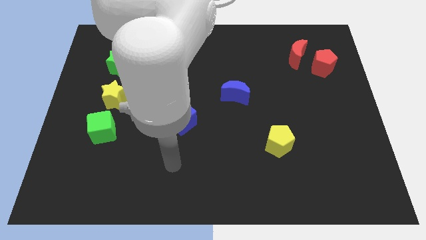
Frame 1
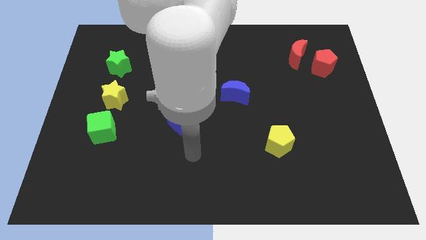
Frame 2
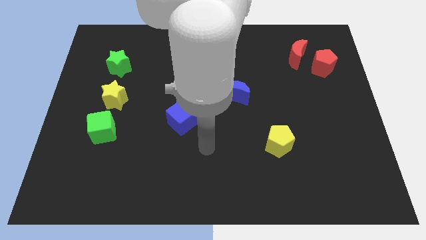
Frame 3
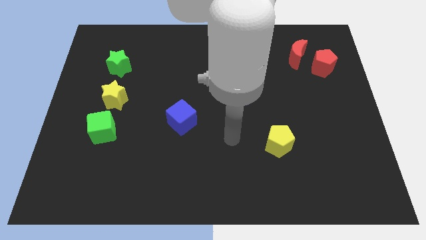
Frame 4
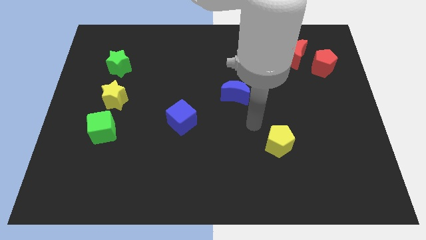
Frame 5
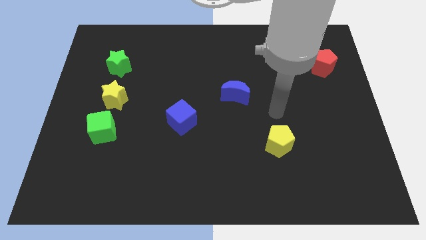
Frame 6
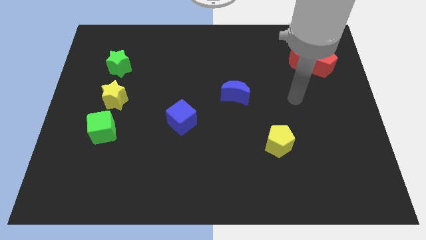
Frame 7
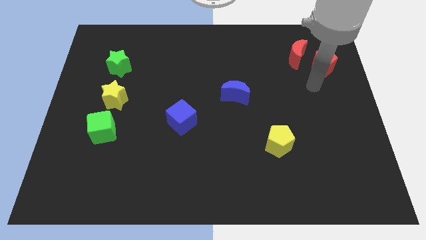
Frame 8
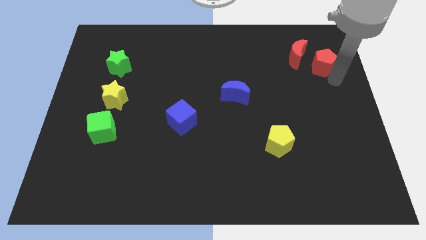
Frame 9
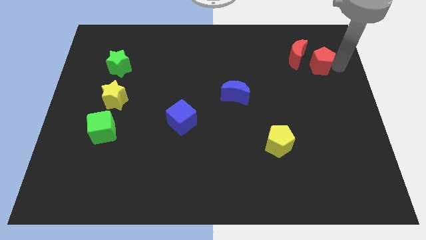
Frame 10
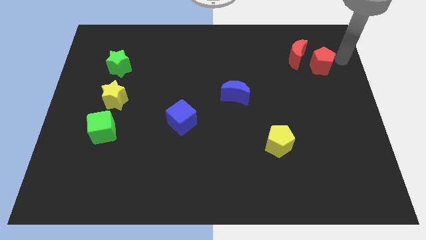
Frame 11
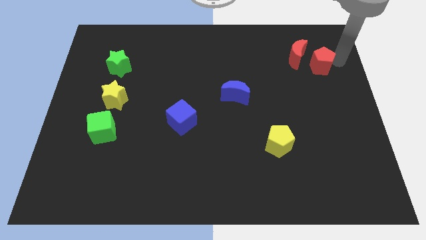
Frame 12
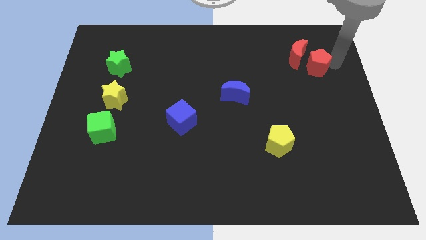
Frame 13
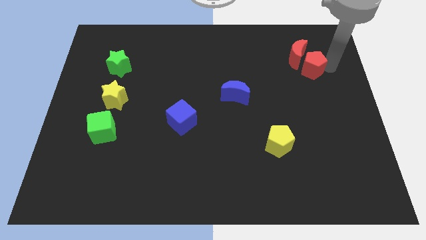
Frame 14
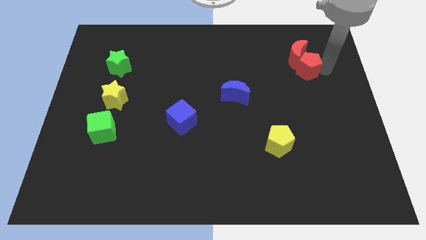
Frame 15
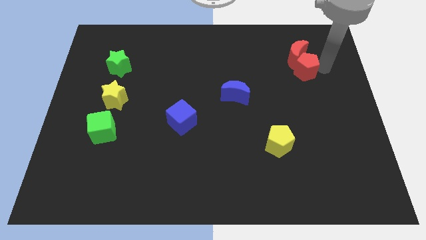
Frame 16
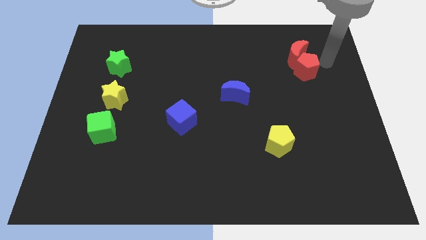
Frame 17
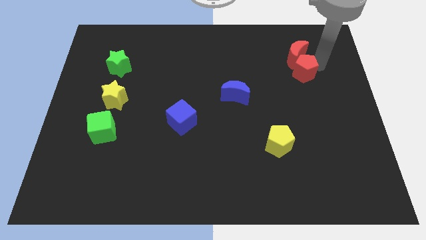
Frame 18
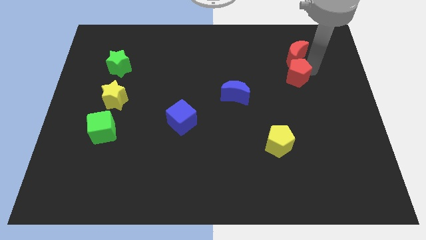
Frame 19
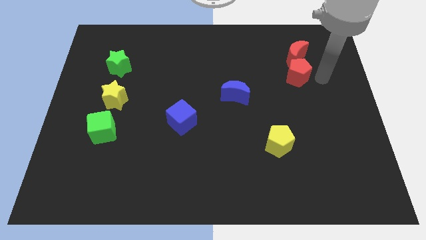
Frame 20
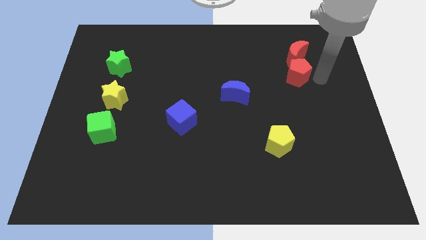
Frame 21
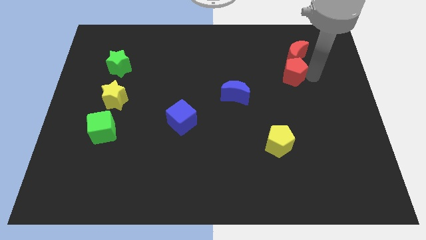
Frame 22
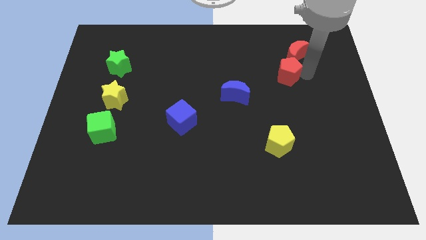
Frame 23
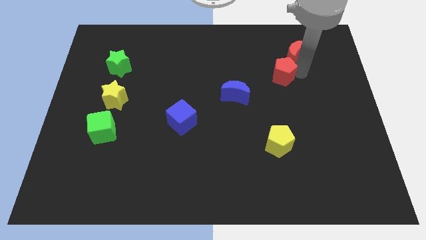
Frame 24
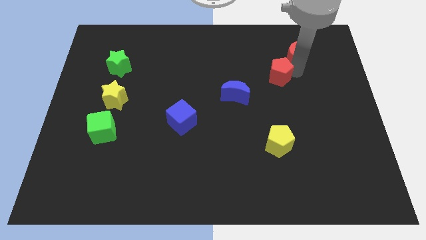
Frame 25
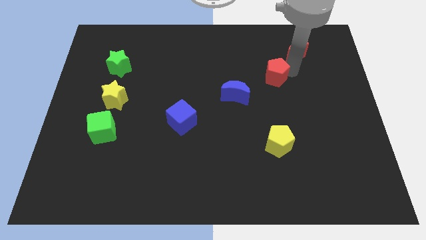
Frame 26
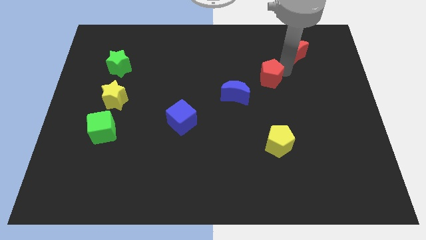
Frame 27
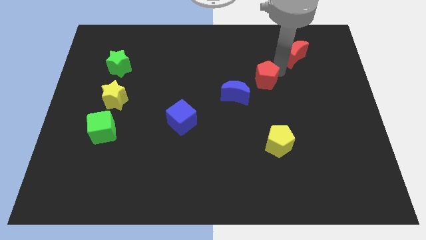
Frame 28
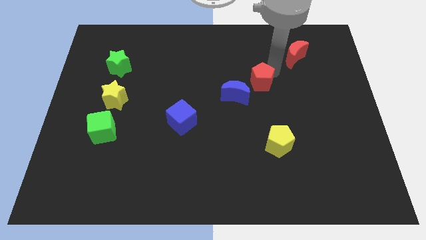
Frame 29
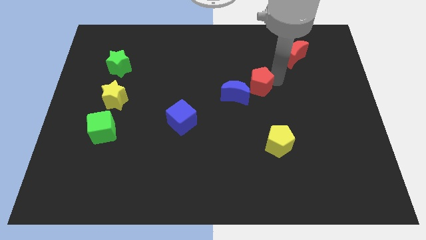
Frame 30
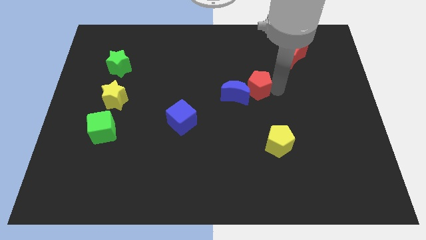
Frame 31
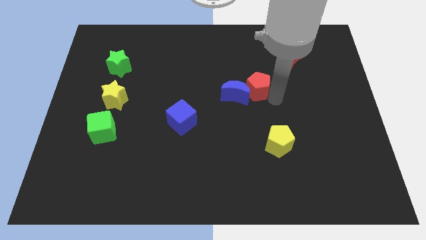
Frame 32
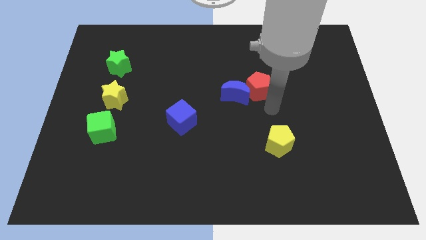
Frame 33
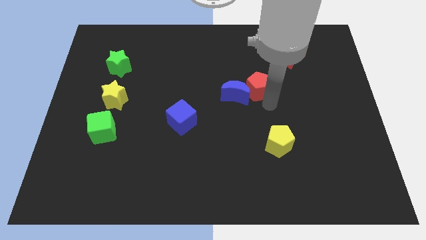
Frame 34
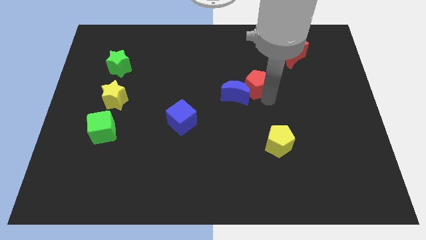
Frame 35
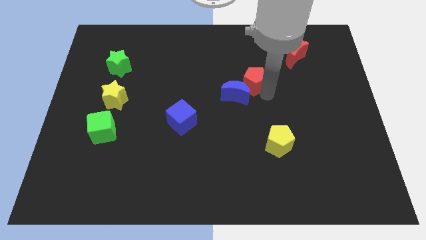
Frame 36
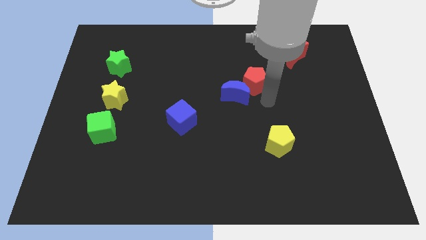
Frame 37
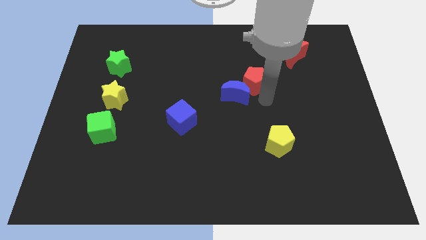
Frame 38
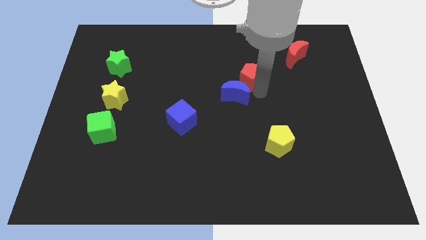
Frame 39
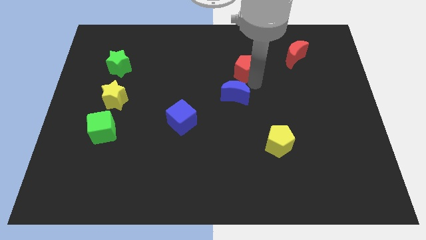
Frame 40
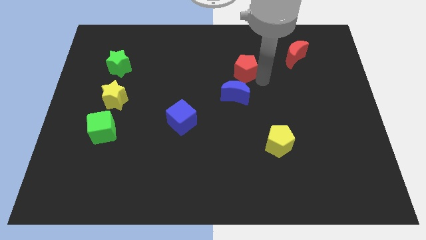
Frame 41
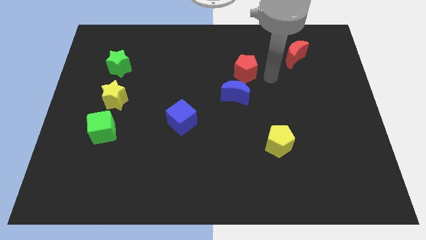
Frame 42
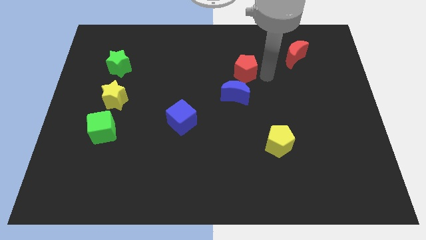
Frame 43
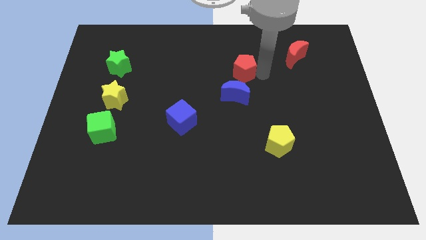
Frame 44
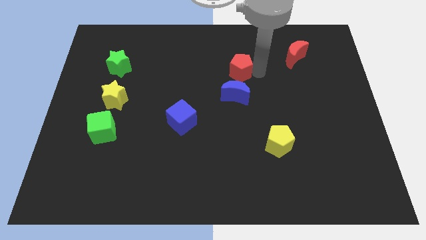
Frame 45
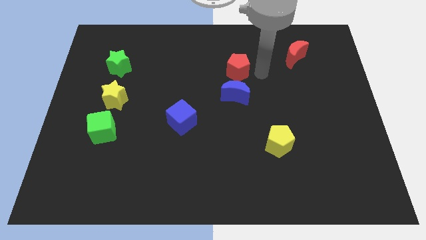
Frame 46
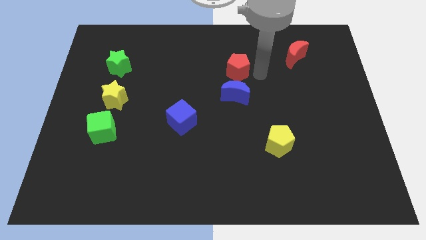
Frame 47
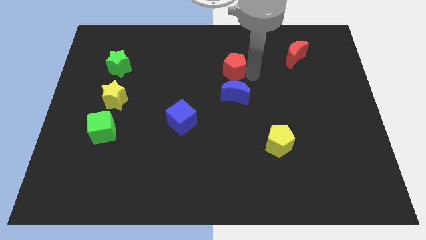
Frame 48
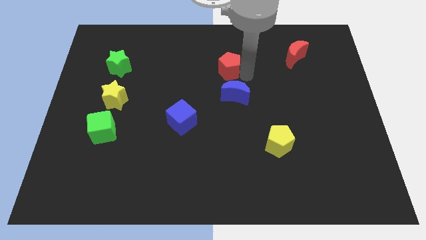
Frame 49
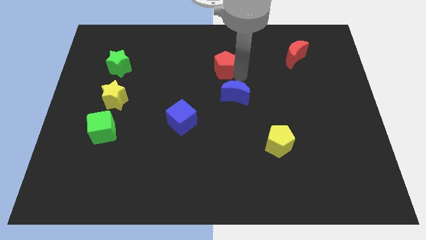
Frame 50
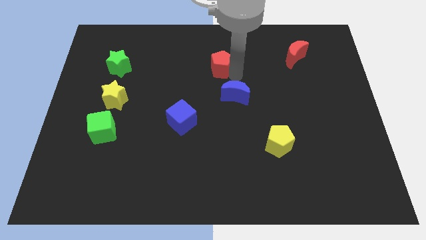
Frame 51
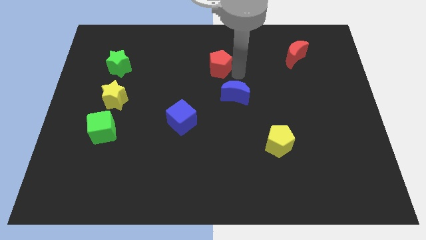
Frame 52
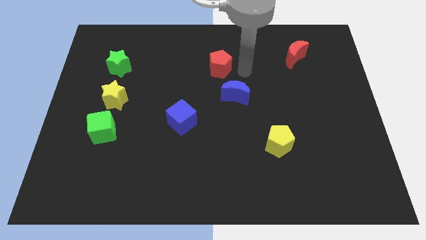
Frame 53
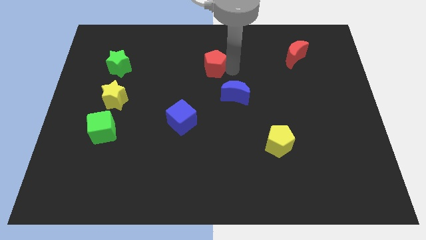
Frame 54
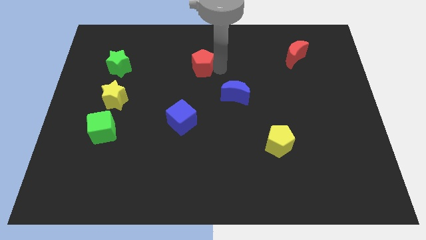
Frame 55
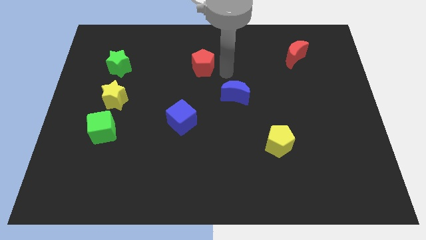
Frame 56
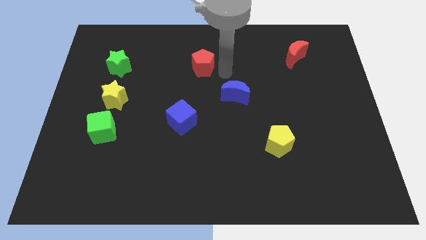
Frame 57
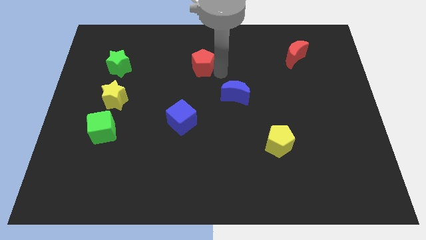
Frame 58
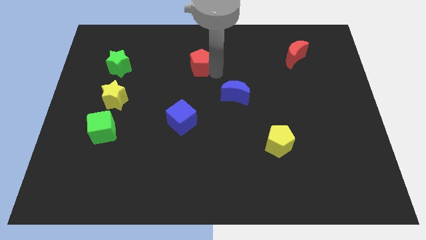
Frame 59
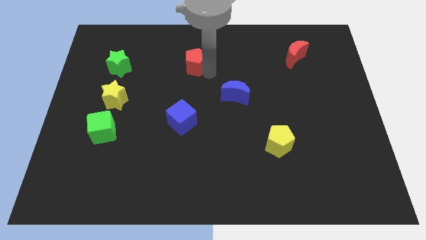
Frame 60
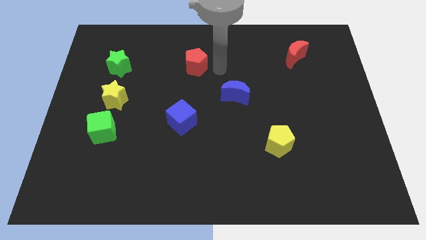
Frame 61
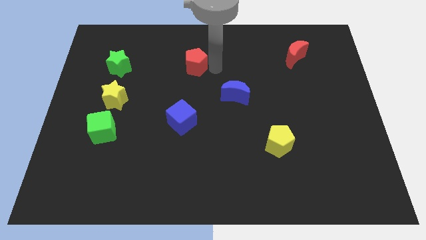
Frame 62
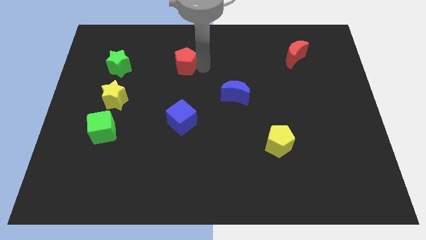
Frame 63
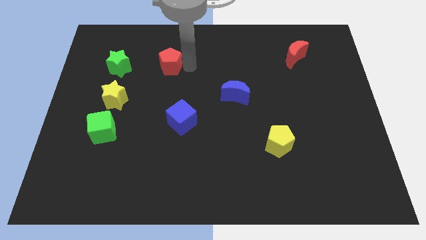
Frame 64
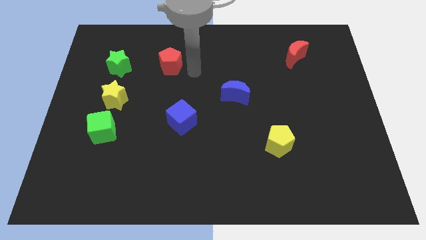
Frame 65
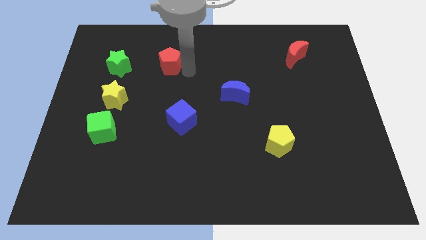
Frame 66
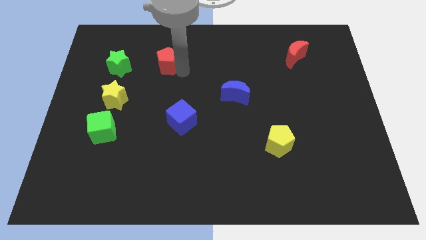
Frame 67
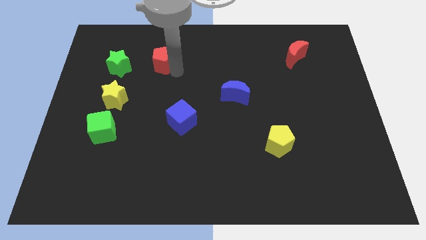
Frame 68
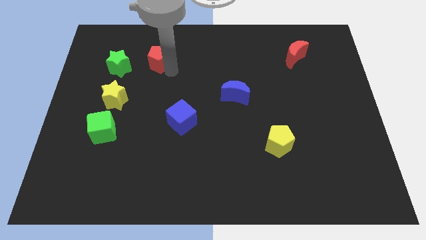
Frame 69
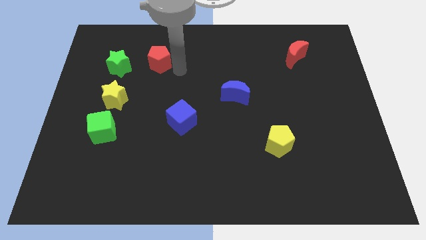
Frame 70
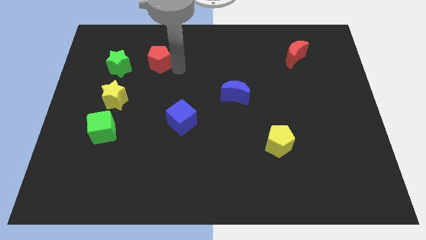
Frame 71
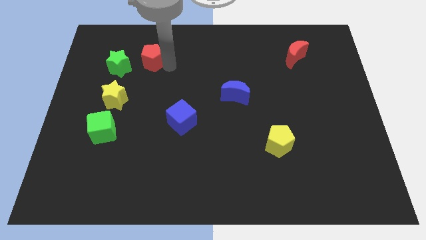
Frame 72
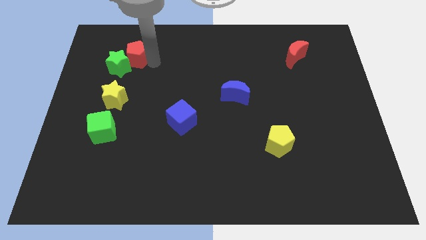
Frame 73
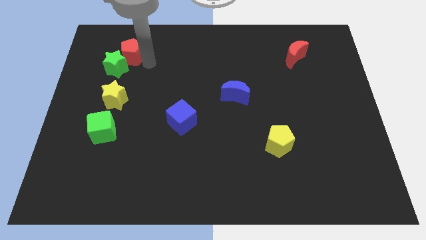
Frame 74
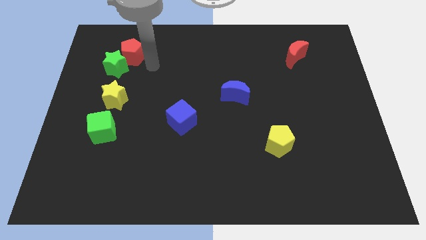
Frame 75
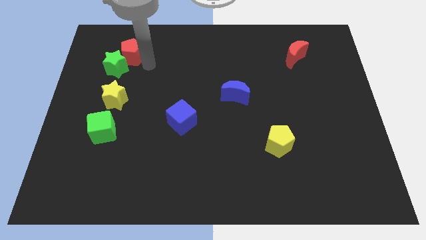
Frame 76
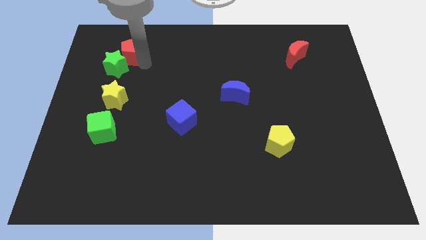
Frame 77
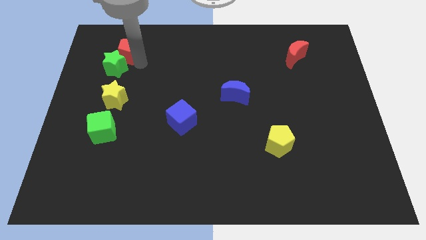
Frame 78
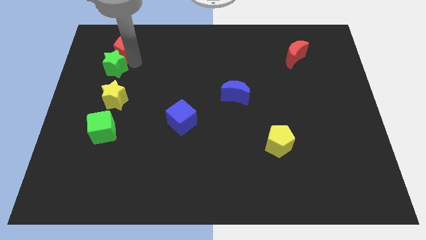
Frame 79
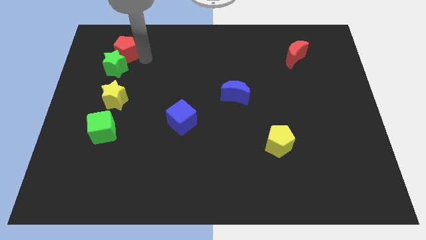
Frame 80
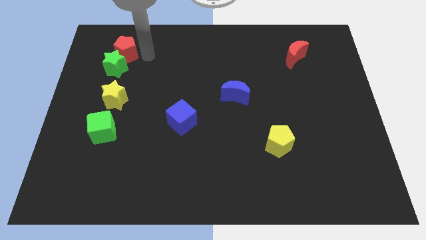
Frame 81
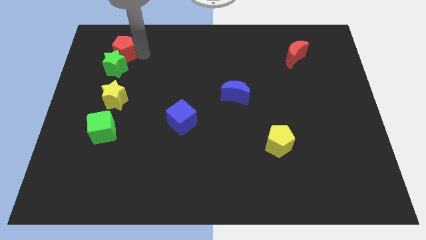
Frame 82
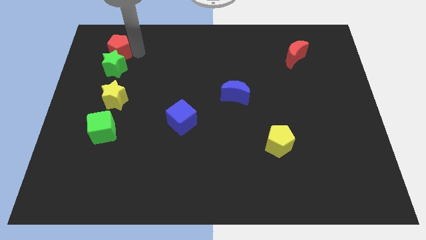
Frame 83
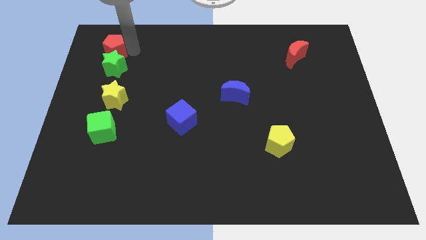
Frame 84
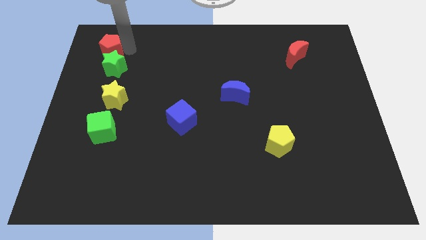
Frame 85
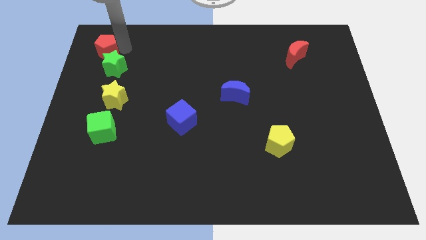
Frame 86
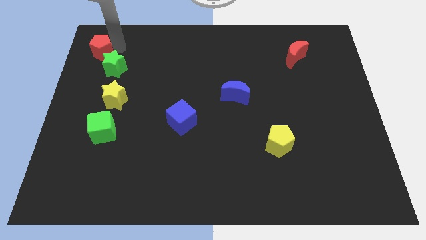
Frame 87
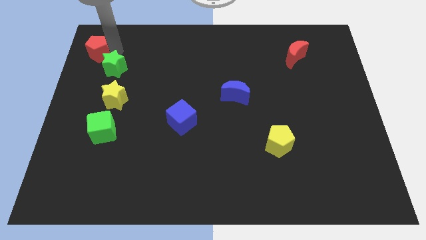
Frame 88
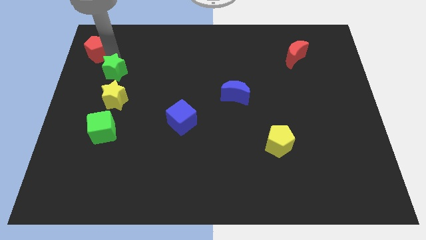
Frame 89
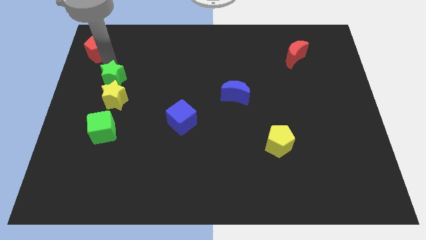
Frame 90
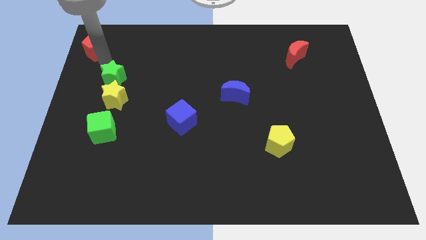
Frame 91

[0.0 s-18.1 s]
push the red pentagon to the upper left corner
